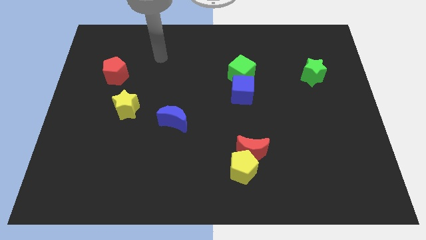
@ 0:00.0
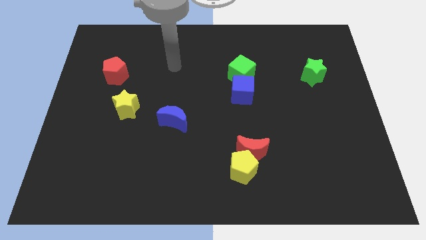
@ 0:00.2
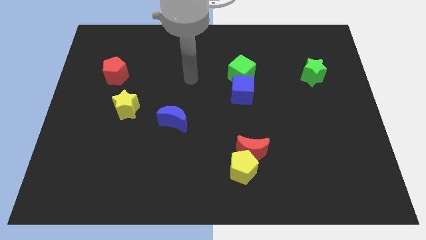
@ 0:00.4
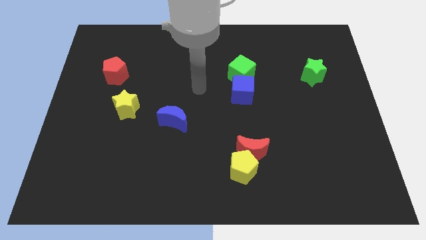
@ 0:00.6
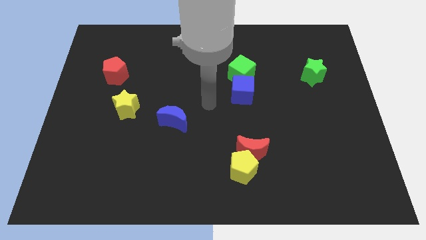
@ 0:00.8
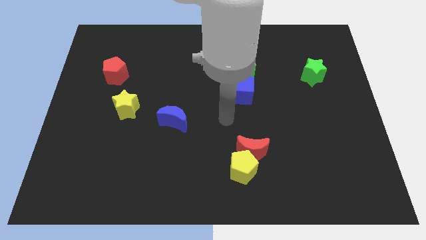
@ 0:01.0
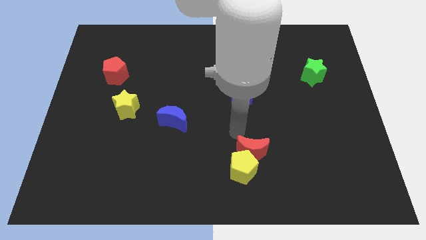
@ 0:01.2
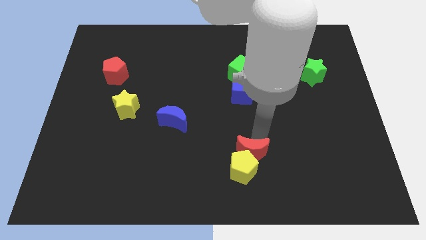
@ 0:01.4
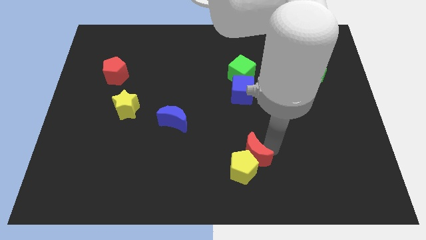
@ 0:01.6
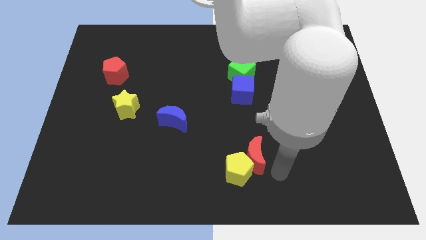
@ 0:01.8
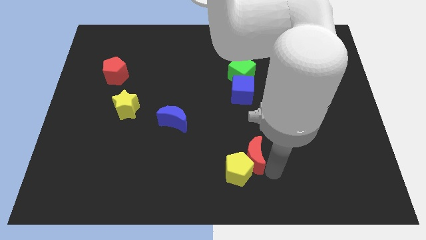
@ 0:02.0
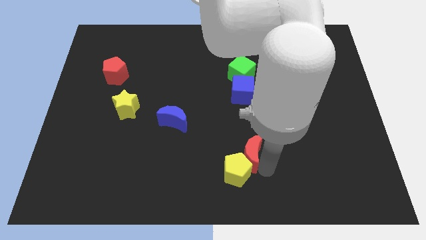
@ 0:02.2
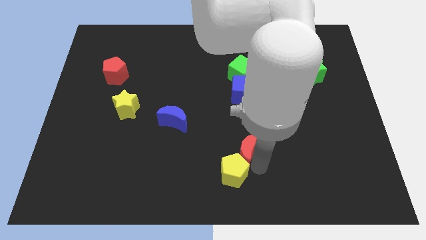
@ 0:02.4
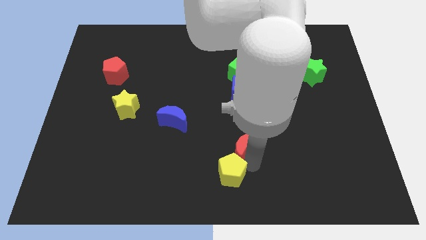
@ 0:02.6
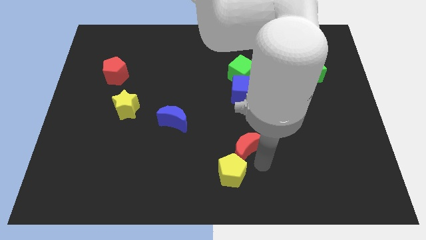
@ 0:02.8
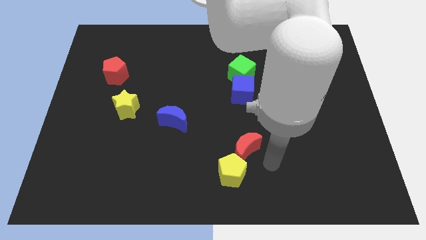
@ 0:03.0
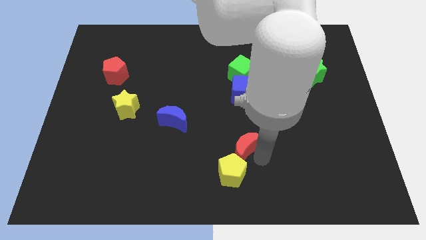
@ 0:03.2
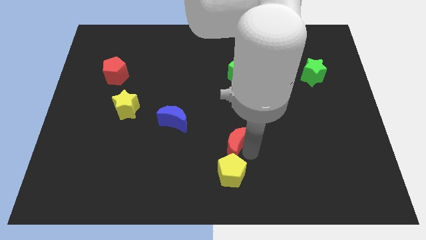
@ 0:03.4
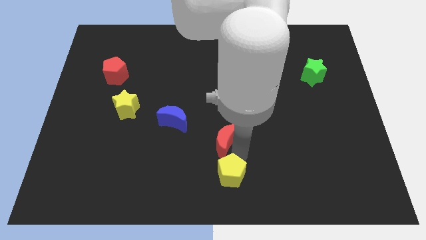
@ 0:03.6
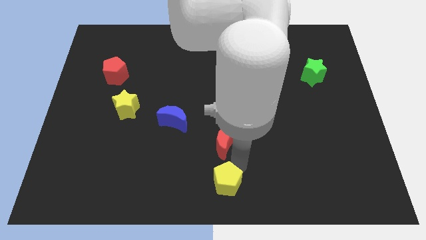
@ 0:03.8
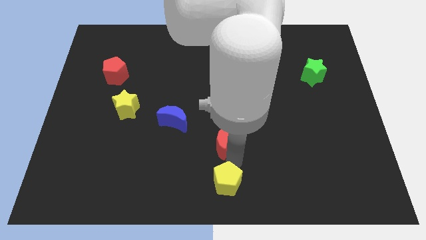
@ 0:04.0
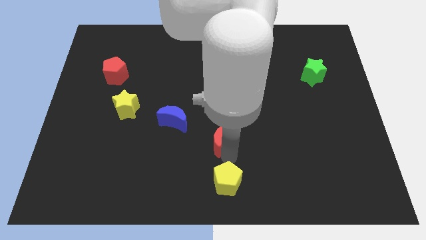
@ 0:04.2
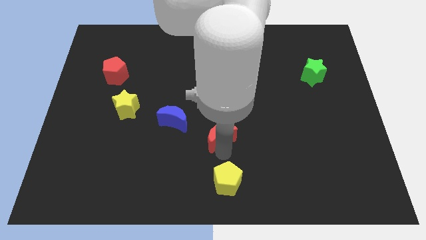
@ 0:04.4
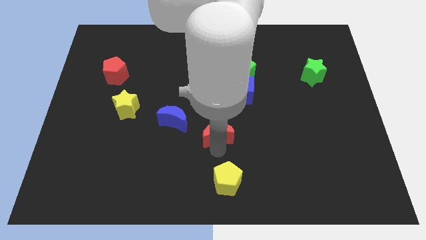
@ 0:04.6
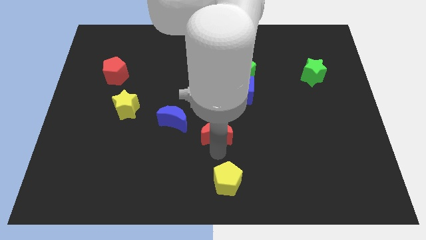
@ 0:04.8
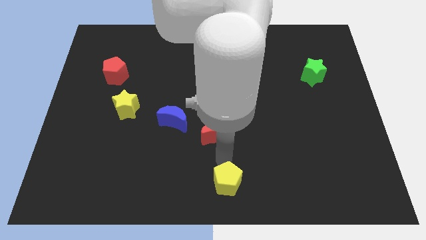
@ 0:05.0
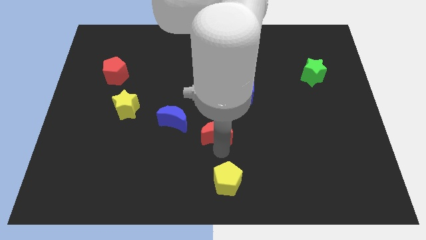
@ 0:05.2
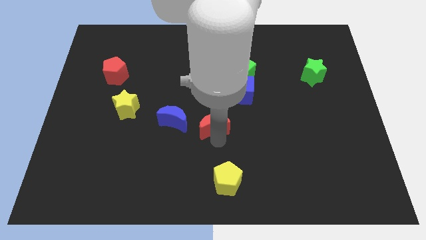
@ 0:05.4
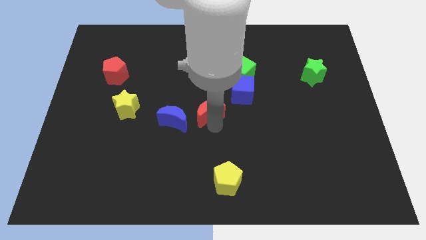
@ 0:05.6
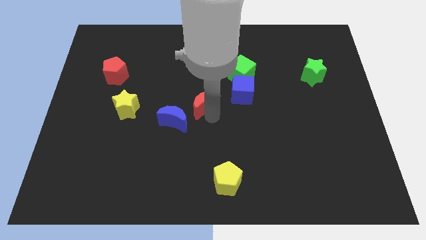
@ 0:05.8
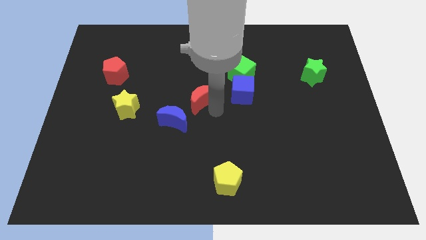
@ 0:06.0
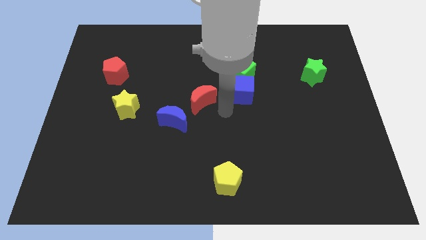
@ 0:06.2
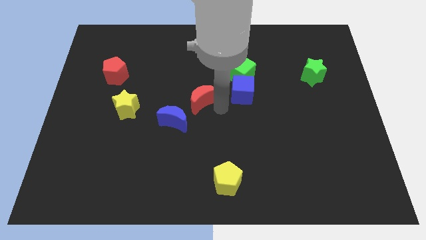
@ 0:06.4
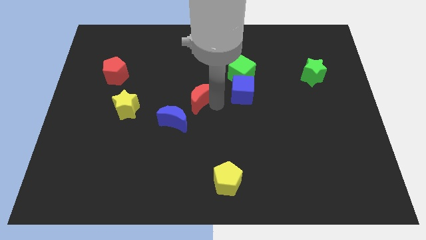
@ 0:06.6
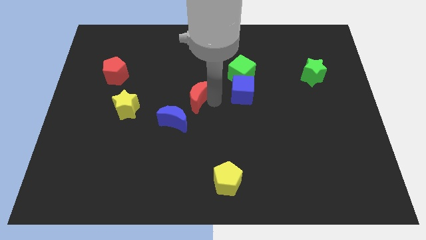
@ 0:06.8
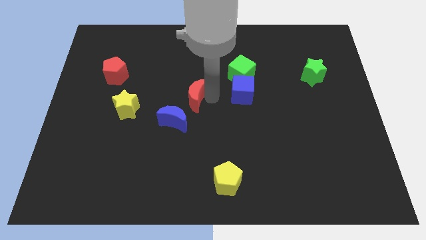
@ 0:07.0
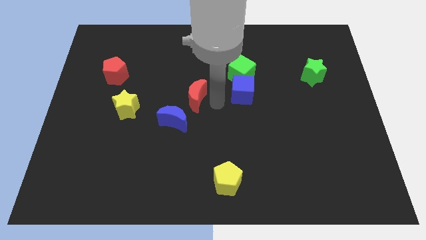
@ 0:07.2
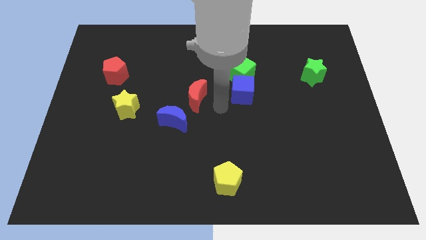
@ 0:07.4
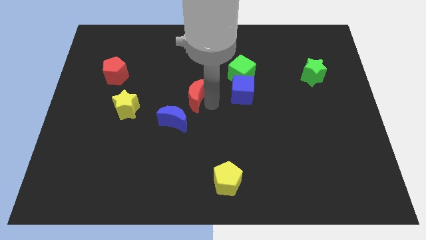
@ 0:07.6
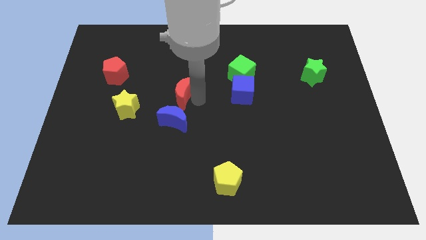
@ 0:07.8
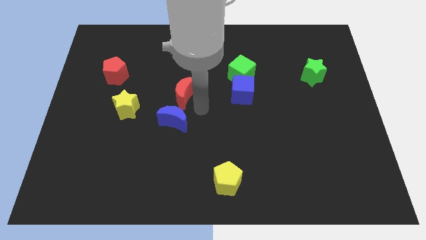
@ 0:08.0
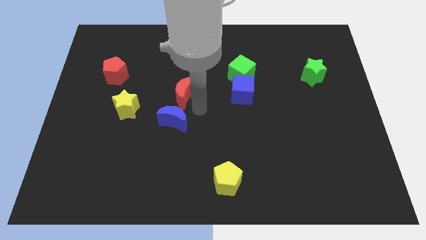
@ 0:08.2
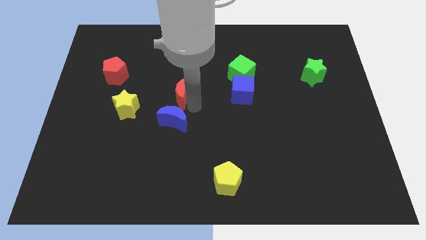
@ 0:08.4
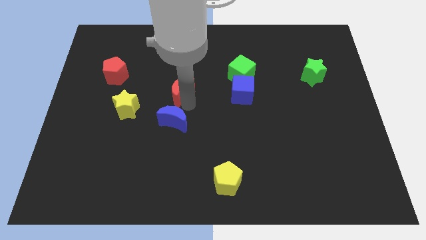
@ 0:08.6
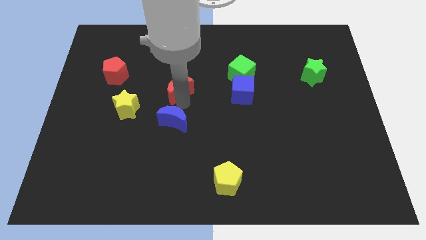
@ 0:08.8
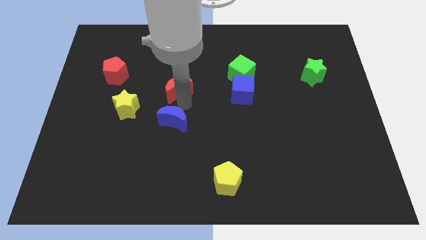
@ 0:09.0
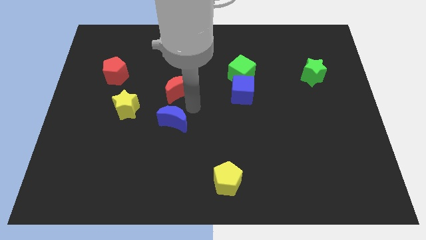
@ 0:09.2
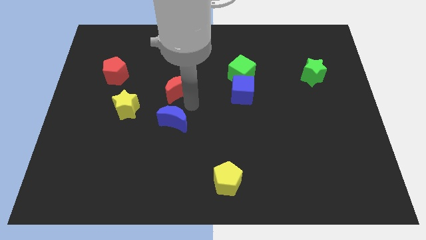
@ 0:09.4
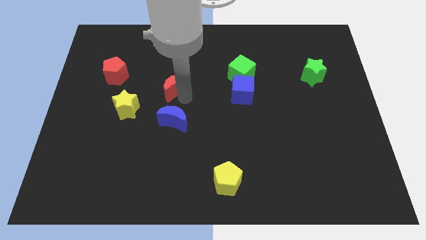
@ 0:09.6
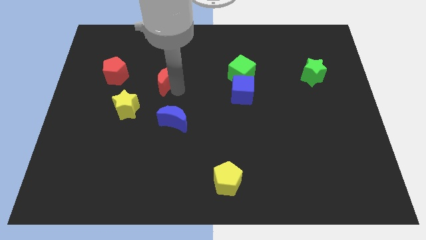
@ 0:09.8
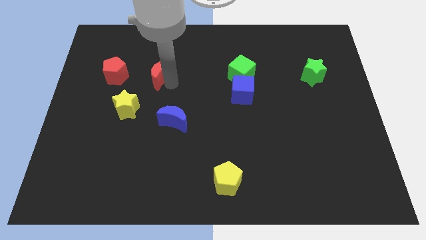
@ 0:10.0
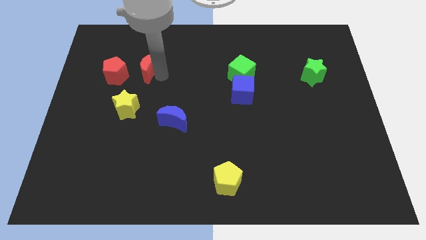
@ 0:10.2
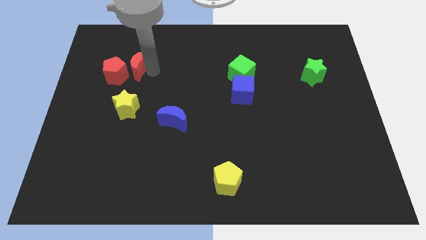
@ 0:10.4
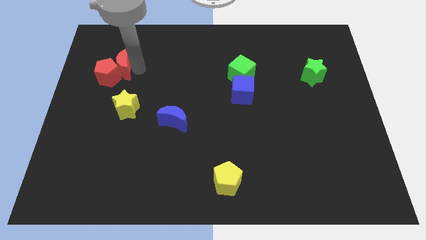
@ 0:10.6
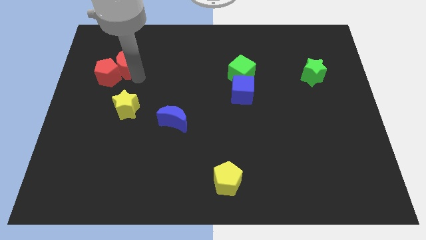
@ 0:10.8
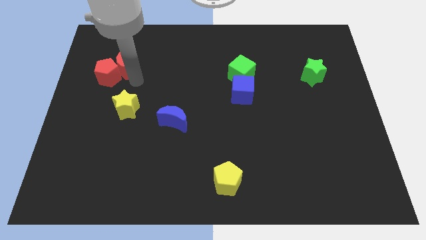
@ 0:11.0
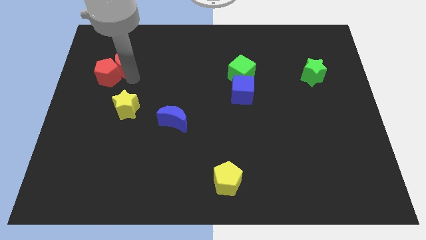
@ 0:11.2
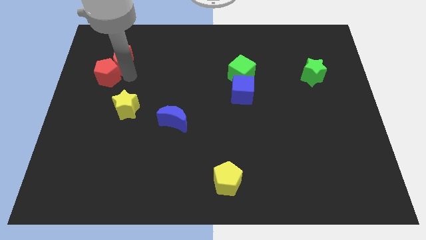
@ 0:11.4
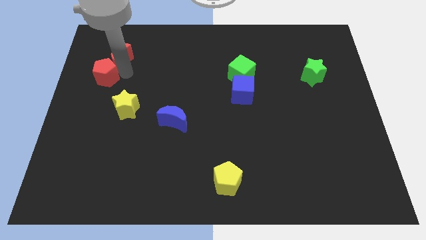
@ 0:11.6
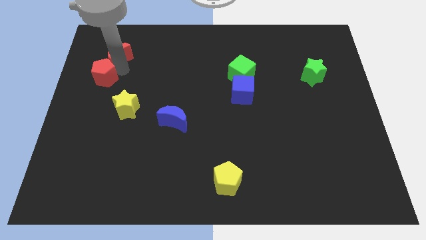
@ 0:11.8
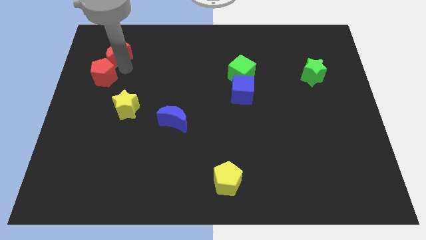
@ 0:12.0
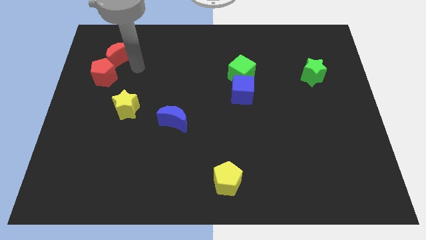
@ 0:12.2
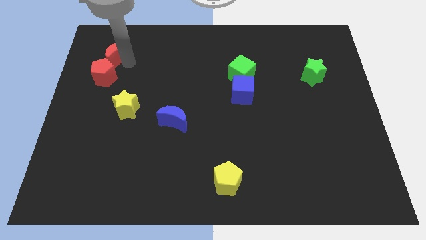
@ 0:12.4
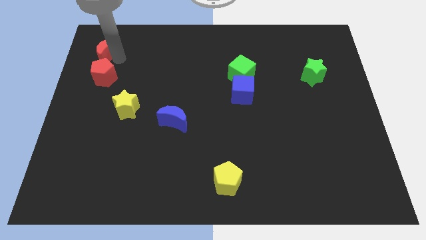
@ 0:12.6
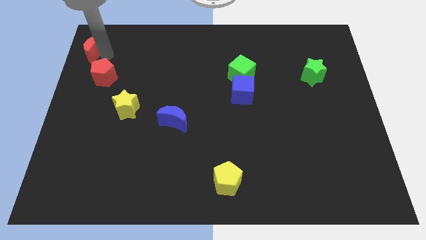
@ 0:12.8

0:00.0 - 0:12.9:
move the red moon to the top left
